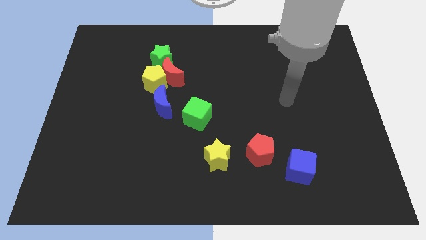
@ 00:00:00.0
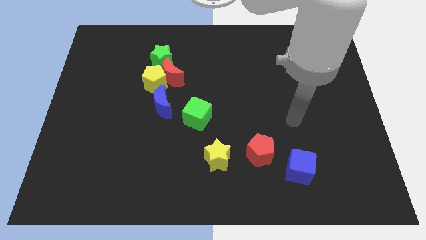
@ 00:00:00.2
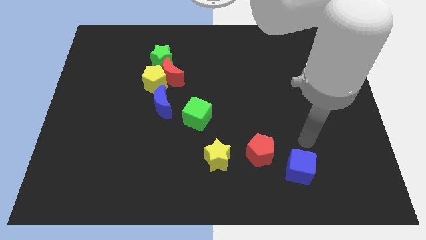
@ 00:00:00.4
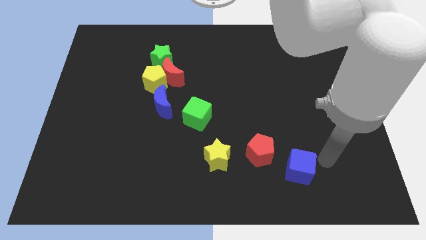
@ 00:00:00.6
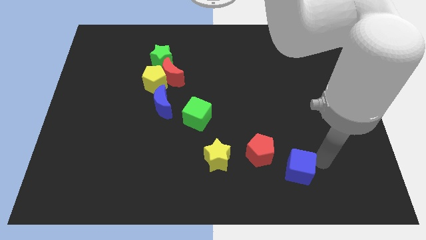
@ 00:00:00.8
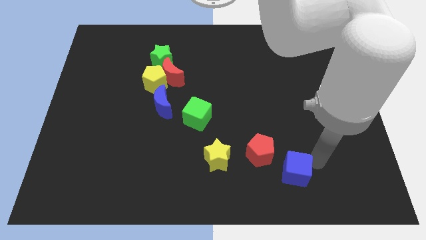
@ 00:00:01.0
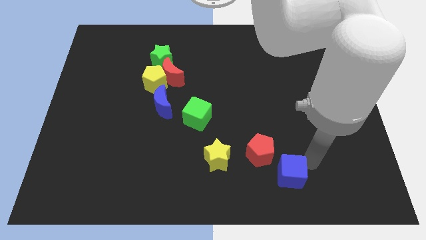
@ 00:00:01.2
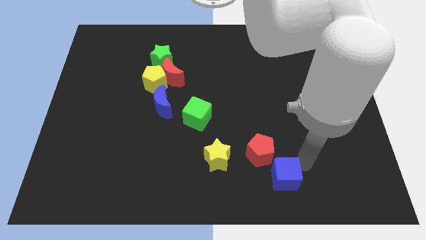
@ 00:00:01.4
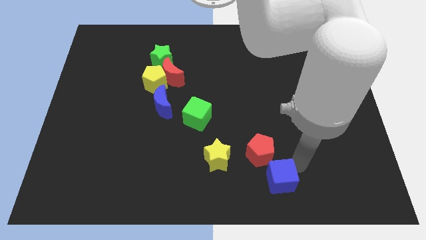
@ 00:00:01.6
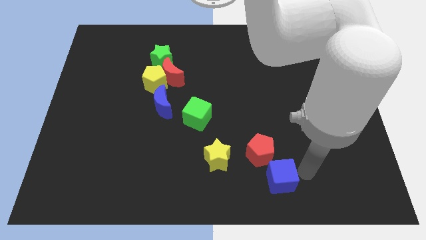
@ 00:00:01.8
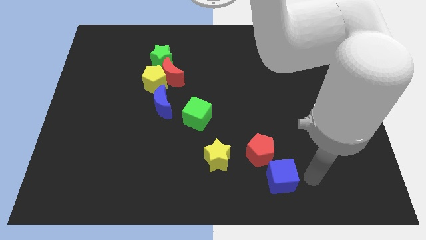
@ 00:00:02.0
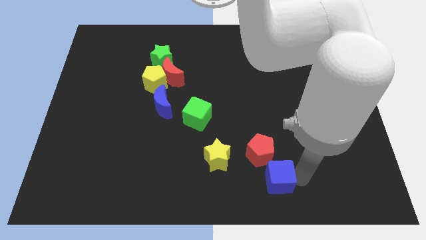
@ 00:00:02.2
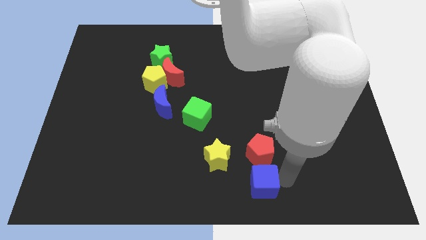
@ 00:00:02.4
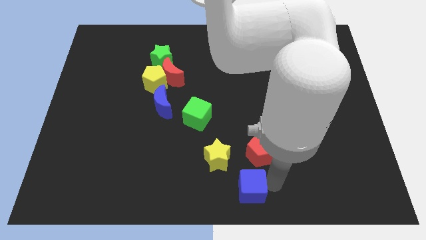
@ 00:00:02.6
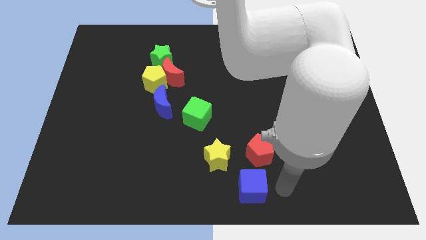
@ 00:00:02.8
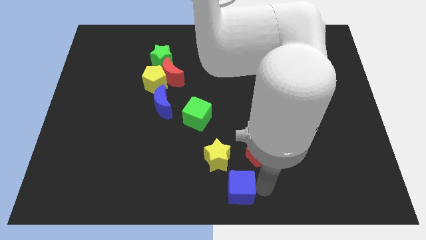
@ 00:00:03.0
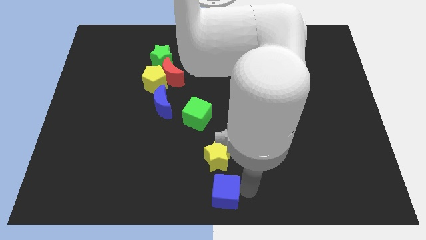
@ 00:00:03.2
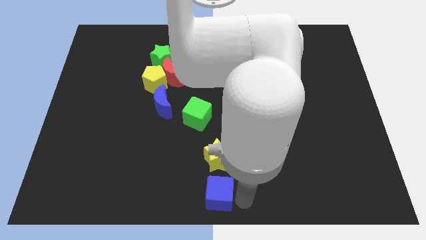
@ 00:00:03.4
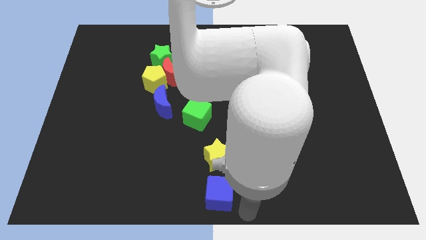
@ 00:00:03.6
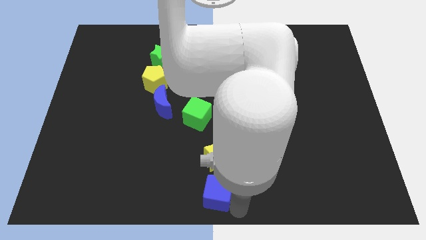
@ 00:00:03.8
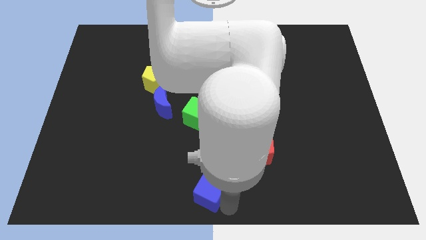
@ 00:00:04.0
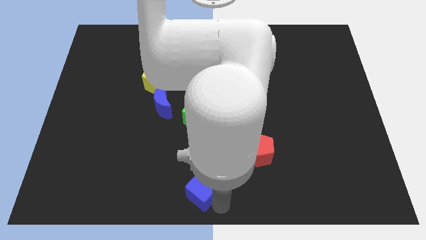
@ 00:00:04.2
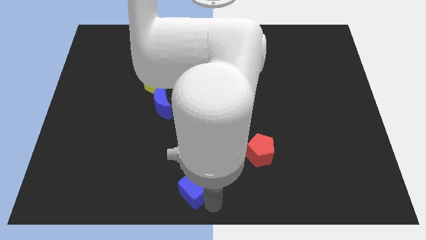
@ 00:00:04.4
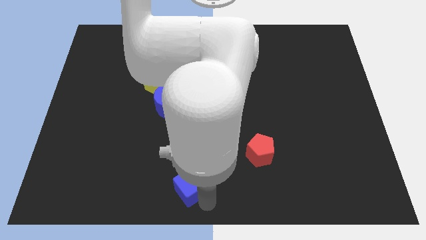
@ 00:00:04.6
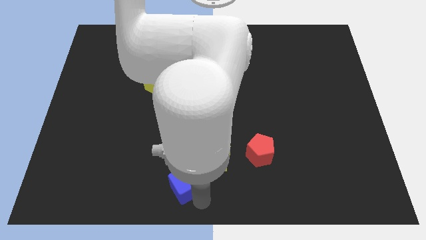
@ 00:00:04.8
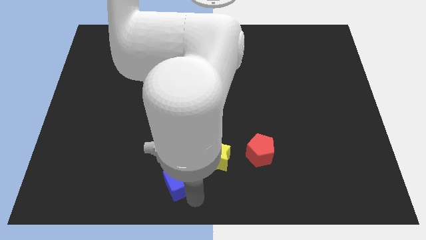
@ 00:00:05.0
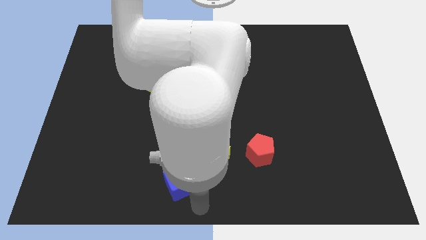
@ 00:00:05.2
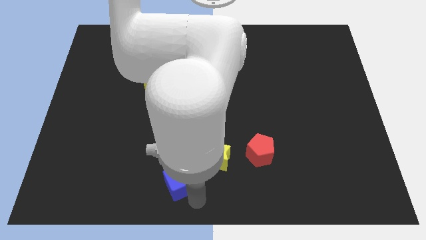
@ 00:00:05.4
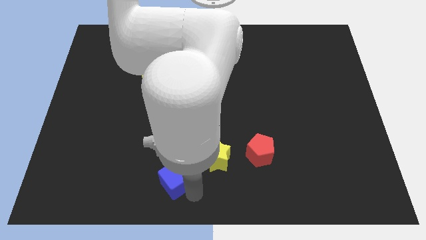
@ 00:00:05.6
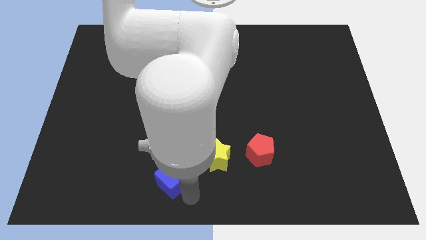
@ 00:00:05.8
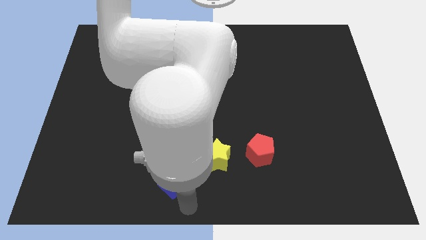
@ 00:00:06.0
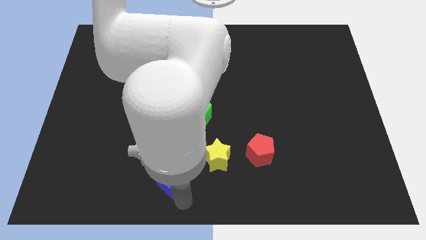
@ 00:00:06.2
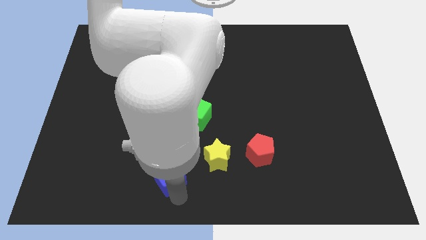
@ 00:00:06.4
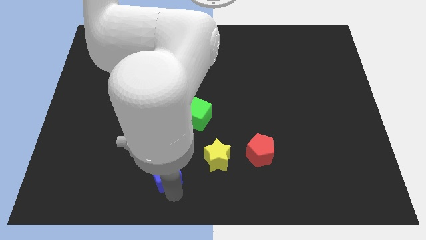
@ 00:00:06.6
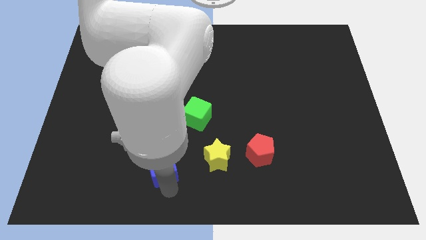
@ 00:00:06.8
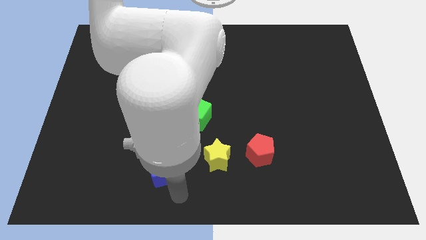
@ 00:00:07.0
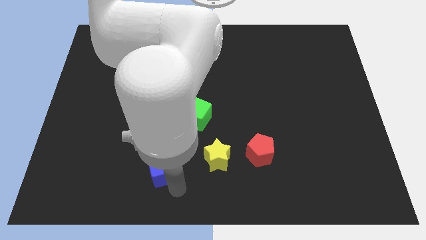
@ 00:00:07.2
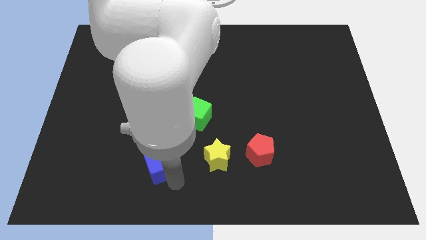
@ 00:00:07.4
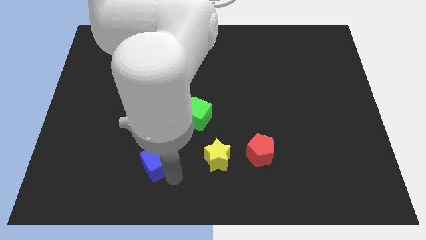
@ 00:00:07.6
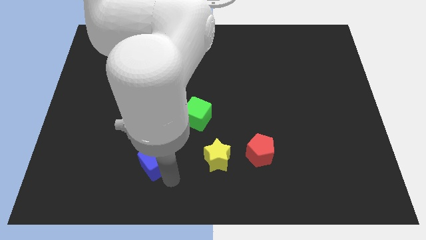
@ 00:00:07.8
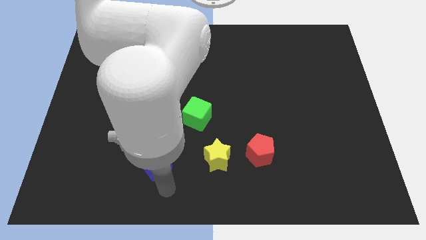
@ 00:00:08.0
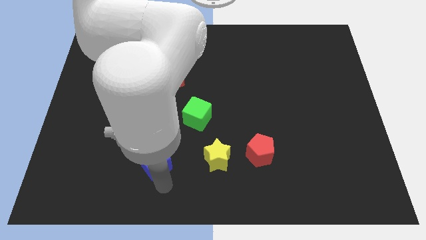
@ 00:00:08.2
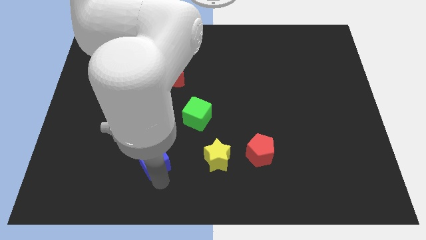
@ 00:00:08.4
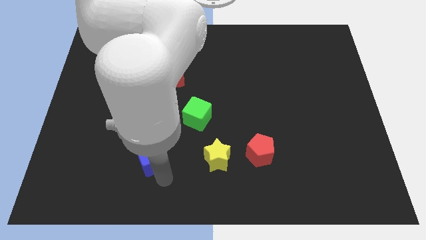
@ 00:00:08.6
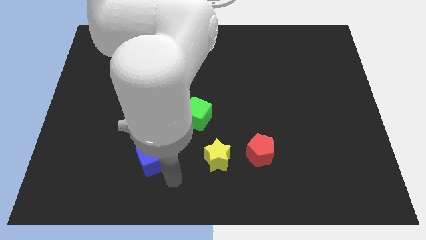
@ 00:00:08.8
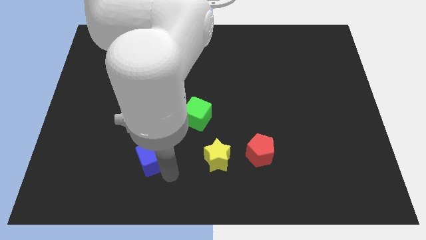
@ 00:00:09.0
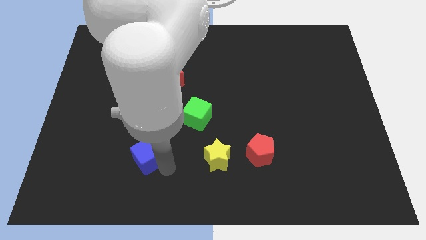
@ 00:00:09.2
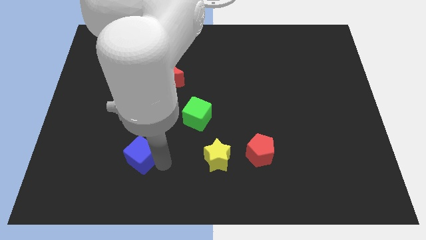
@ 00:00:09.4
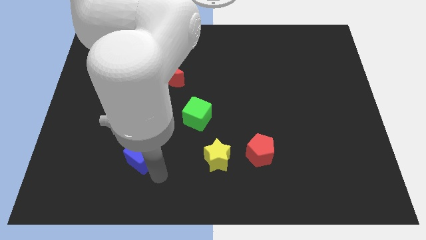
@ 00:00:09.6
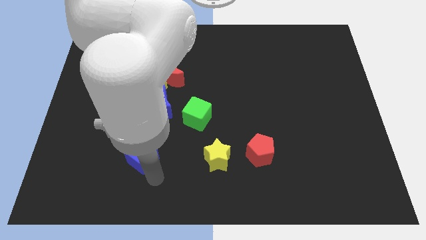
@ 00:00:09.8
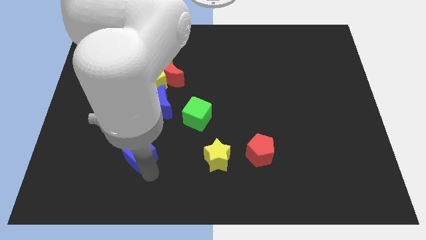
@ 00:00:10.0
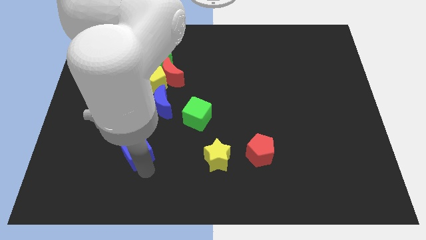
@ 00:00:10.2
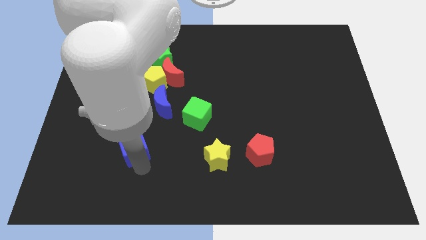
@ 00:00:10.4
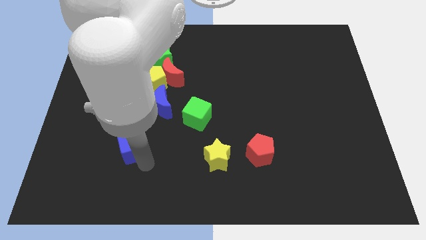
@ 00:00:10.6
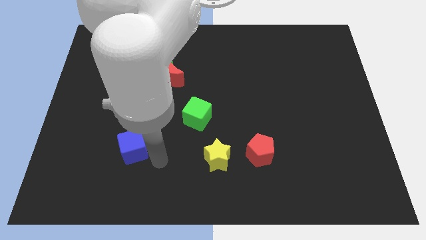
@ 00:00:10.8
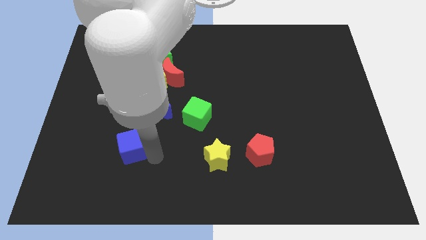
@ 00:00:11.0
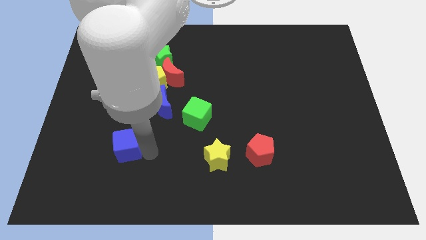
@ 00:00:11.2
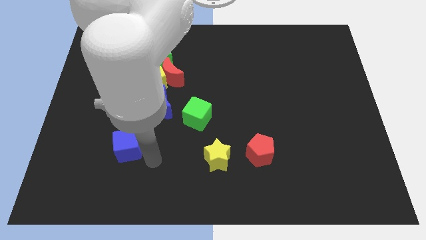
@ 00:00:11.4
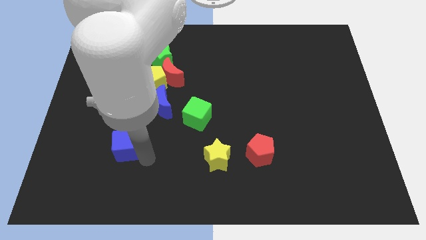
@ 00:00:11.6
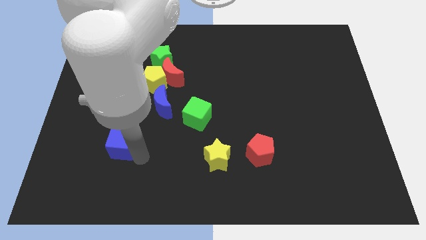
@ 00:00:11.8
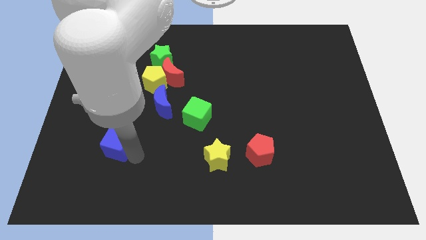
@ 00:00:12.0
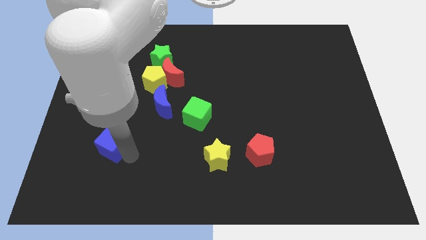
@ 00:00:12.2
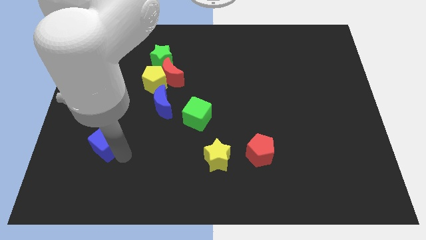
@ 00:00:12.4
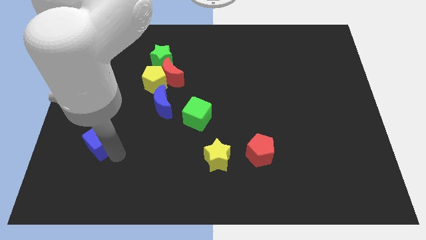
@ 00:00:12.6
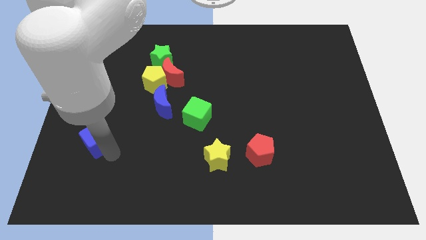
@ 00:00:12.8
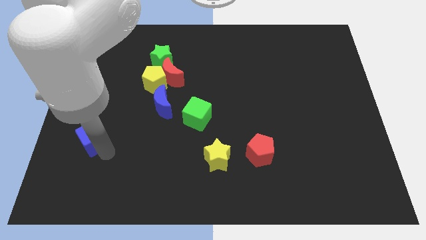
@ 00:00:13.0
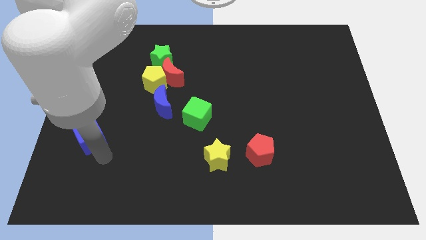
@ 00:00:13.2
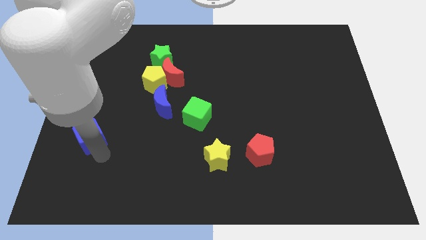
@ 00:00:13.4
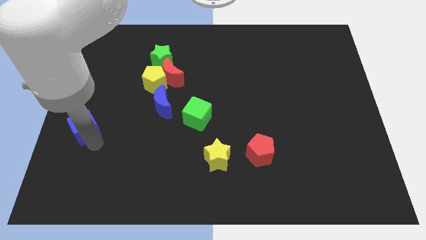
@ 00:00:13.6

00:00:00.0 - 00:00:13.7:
push the blue cube to the center left
